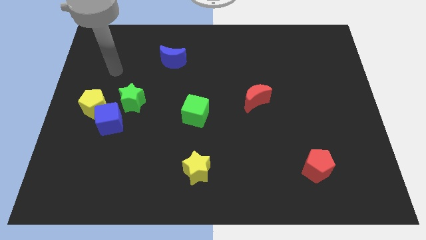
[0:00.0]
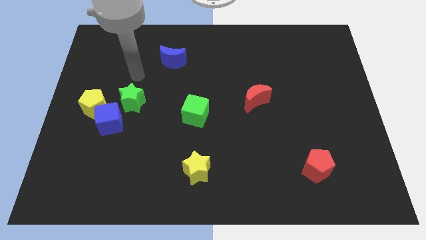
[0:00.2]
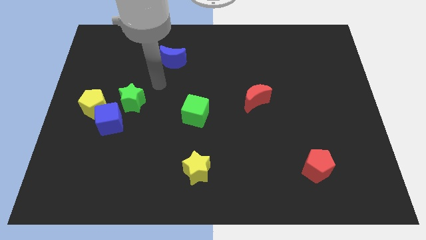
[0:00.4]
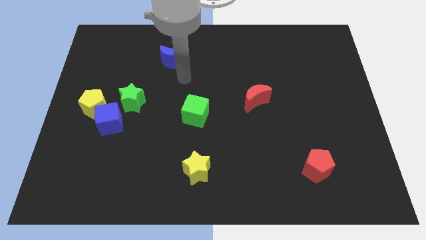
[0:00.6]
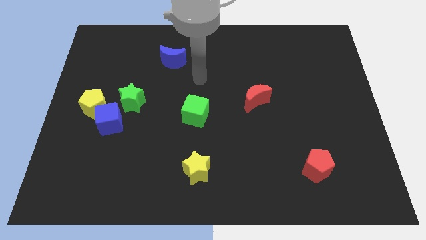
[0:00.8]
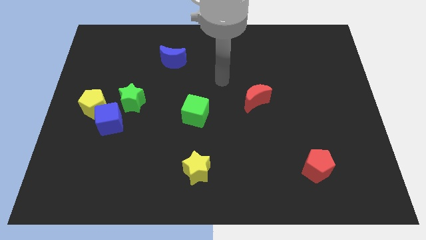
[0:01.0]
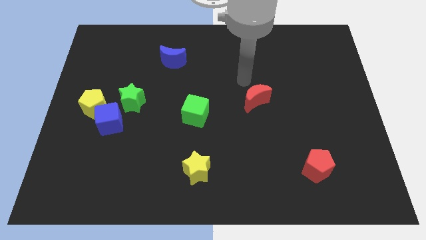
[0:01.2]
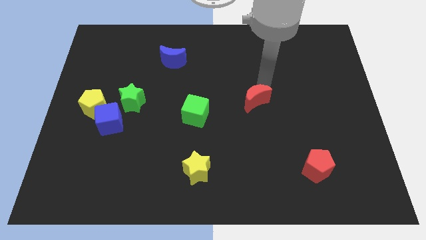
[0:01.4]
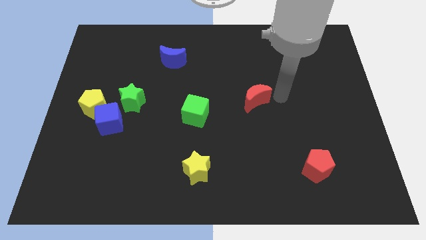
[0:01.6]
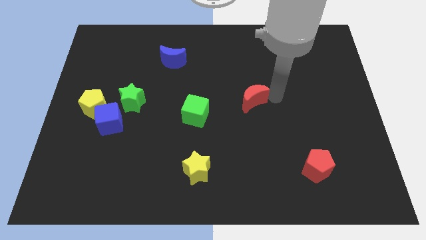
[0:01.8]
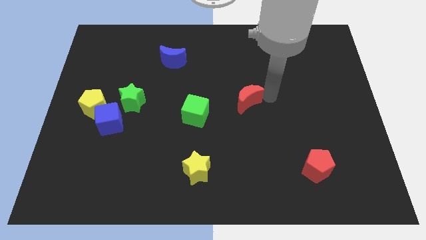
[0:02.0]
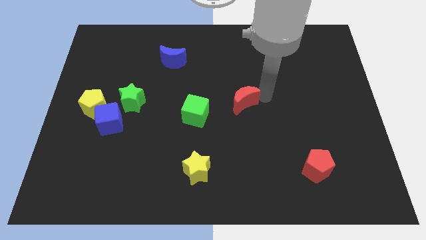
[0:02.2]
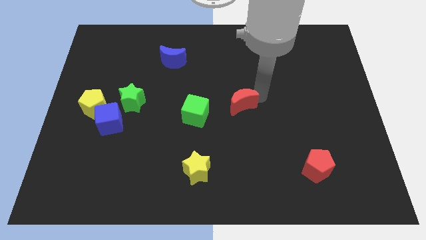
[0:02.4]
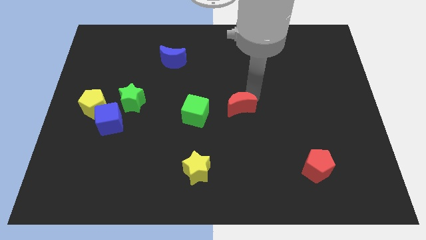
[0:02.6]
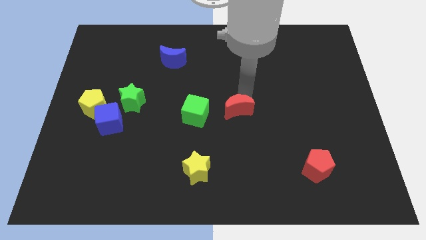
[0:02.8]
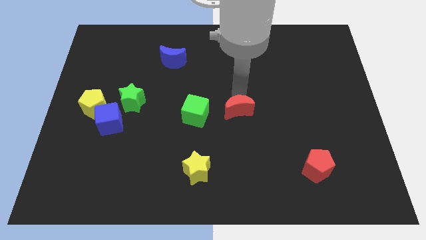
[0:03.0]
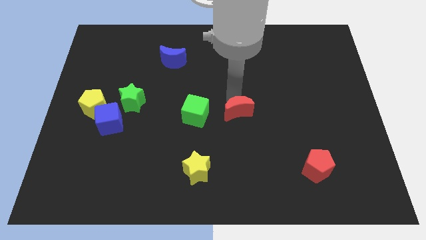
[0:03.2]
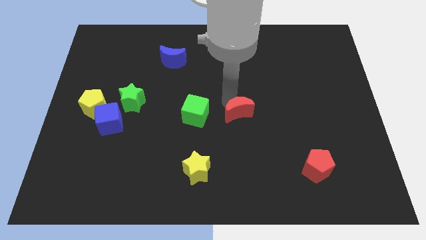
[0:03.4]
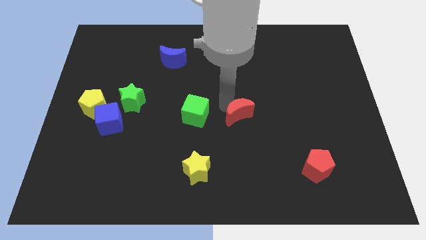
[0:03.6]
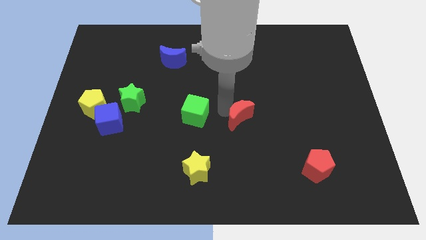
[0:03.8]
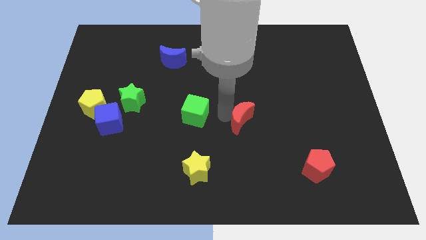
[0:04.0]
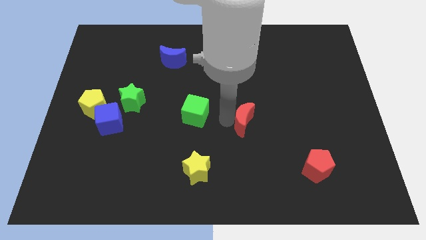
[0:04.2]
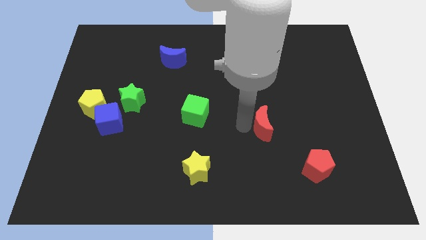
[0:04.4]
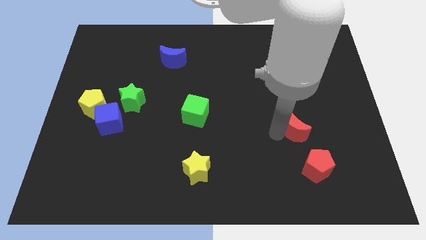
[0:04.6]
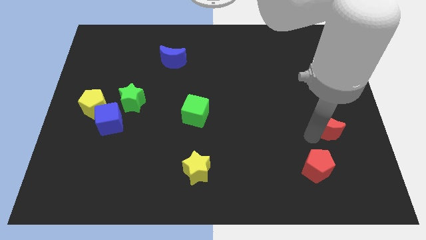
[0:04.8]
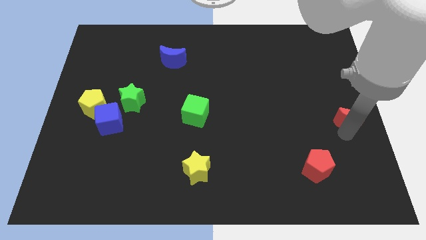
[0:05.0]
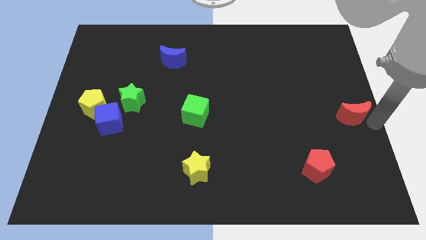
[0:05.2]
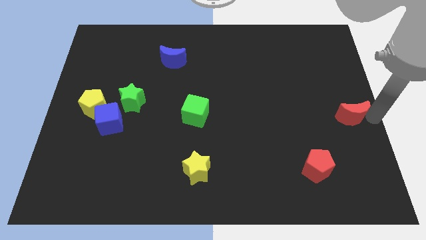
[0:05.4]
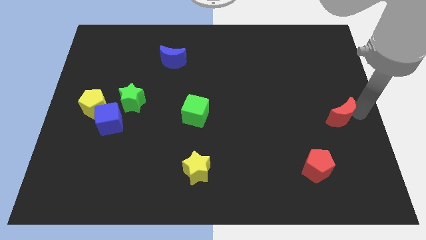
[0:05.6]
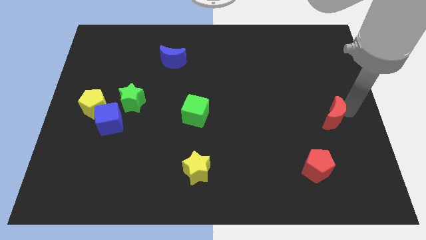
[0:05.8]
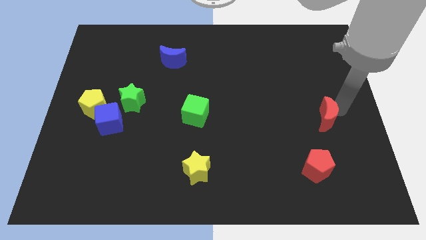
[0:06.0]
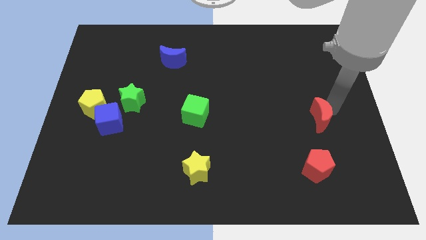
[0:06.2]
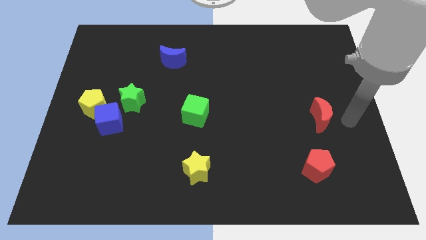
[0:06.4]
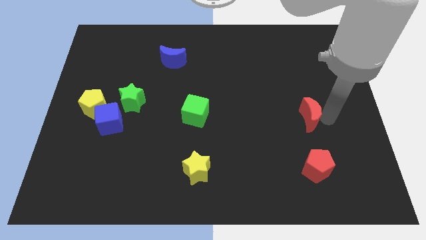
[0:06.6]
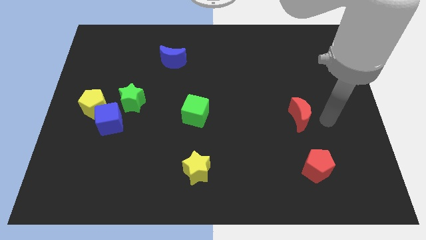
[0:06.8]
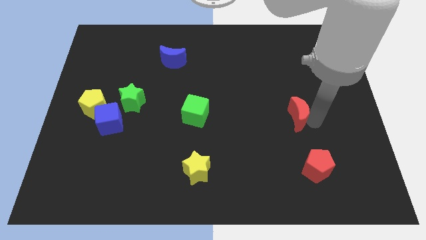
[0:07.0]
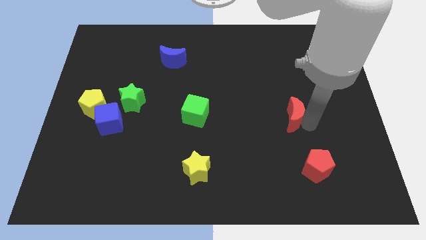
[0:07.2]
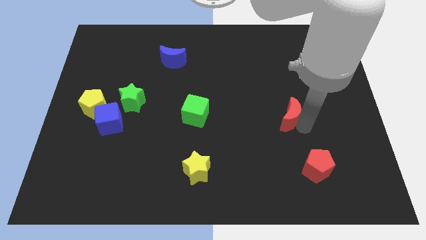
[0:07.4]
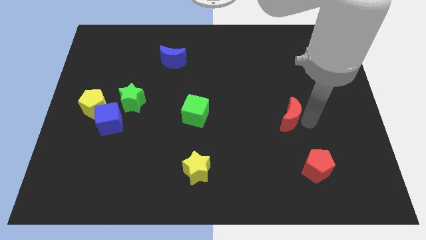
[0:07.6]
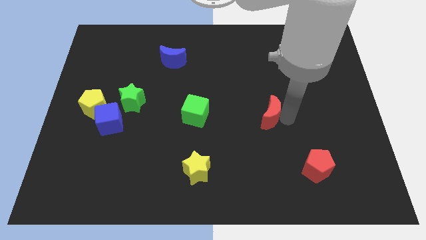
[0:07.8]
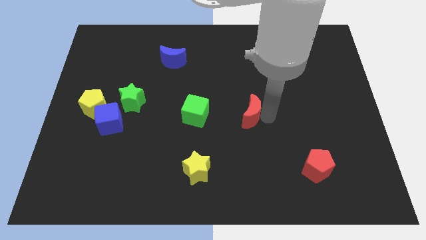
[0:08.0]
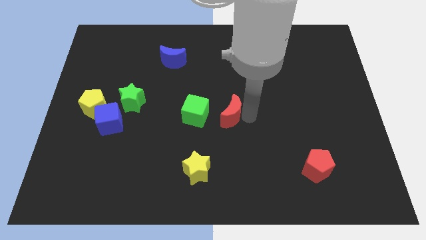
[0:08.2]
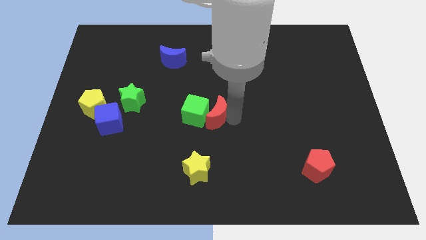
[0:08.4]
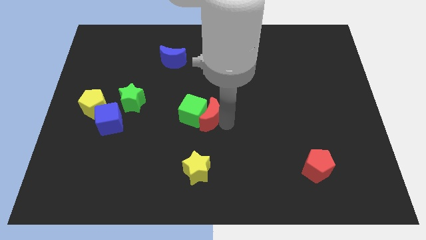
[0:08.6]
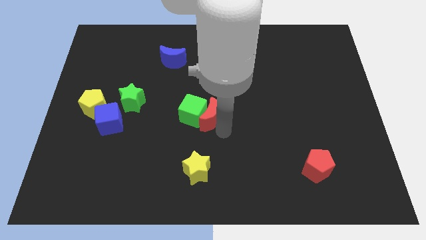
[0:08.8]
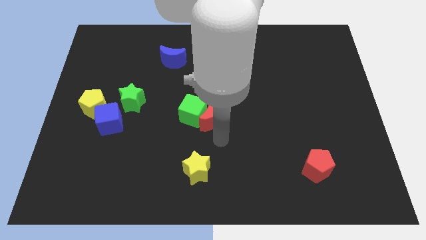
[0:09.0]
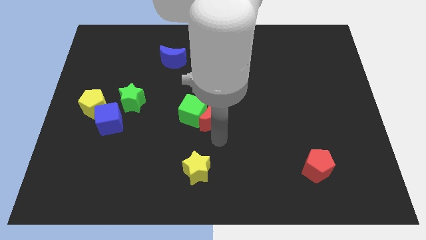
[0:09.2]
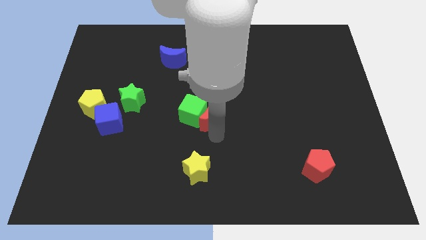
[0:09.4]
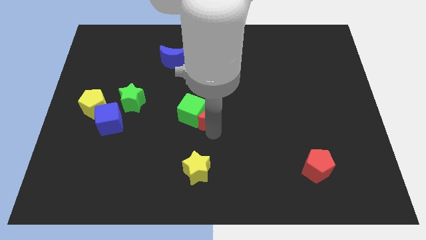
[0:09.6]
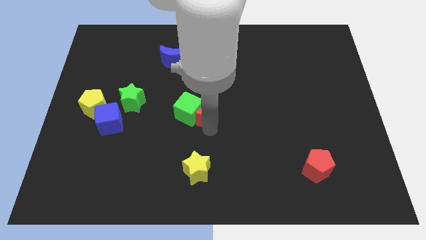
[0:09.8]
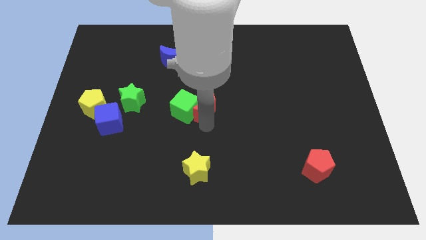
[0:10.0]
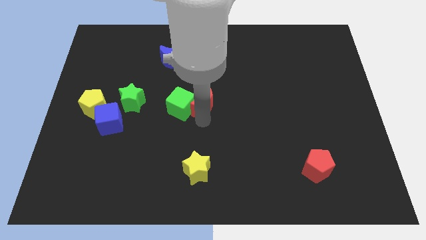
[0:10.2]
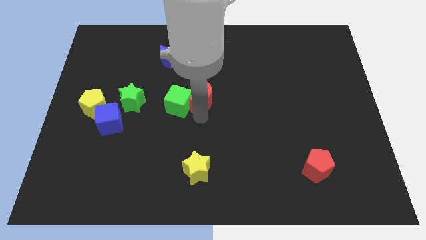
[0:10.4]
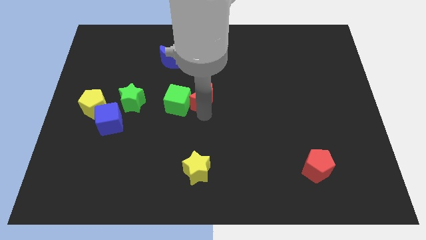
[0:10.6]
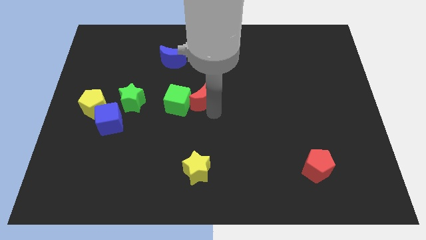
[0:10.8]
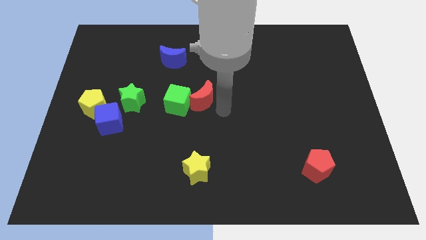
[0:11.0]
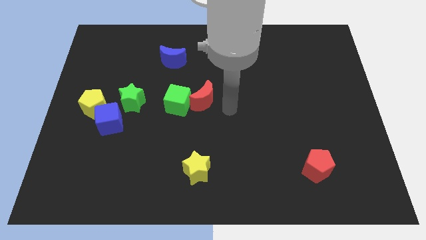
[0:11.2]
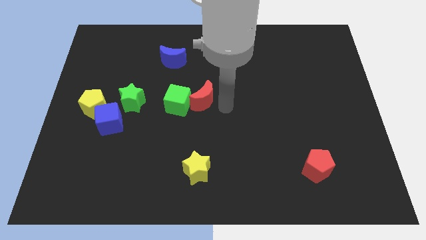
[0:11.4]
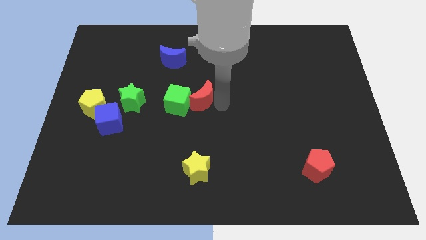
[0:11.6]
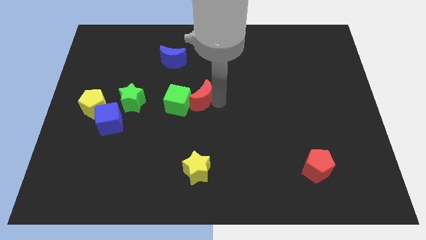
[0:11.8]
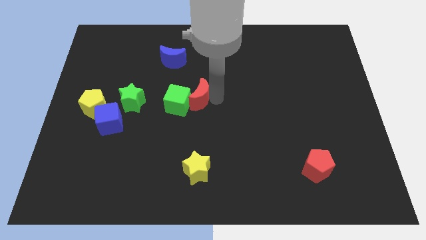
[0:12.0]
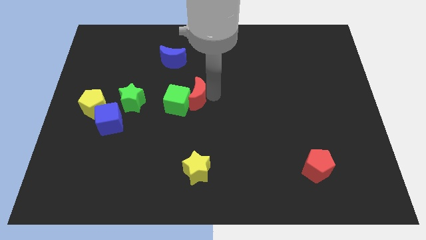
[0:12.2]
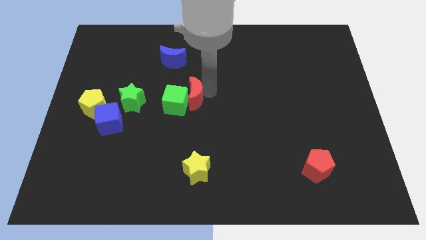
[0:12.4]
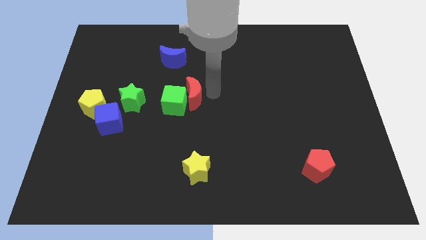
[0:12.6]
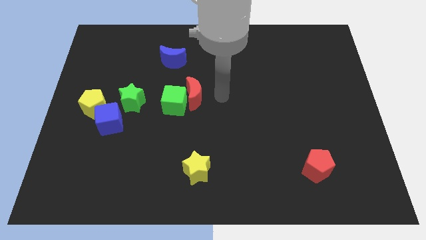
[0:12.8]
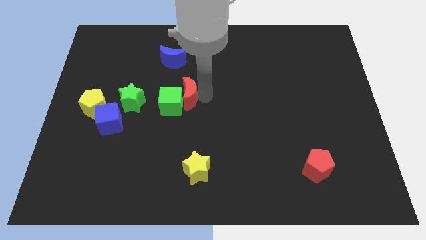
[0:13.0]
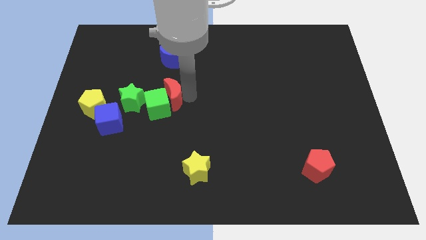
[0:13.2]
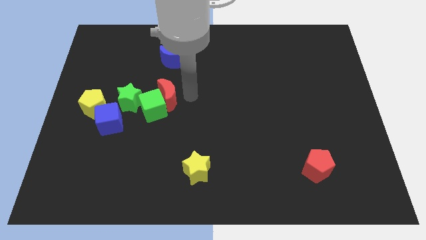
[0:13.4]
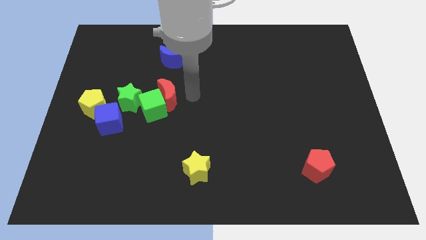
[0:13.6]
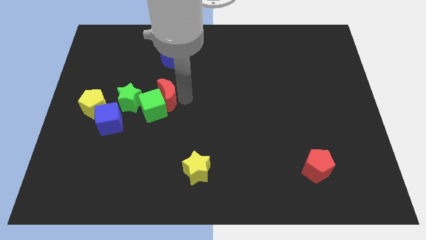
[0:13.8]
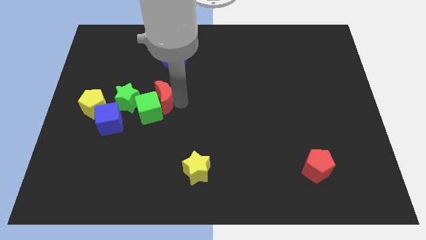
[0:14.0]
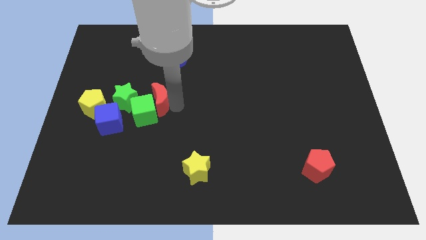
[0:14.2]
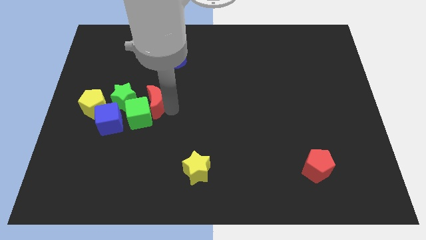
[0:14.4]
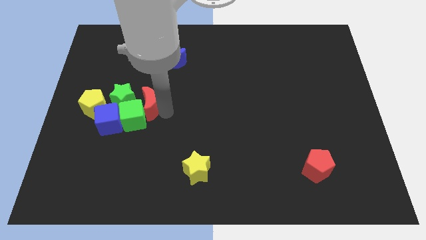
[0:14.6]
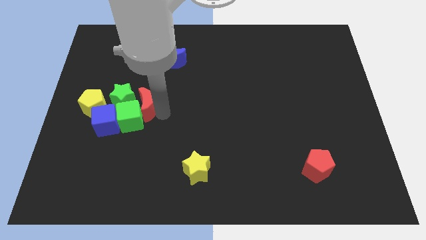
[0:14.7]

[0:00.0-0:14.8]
put the red moon to the green star
